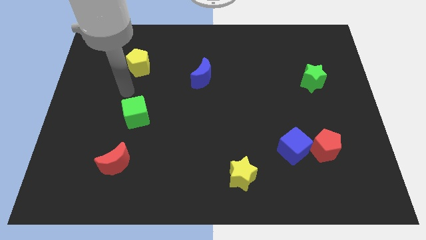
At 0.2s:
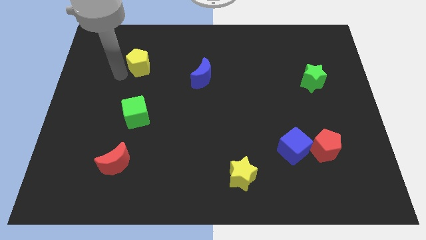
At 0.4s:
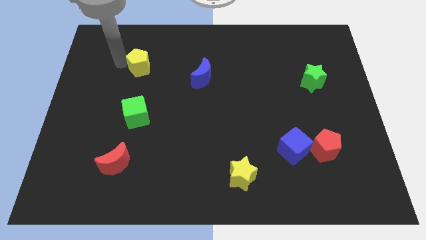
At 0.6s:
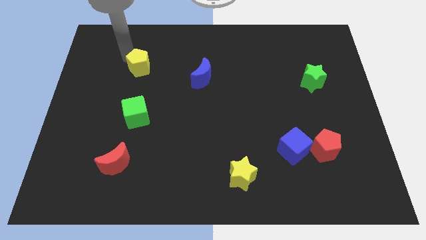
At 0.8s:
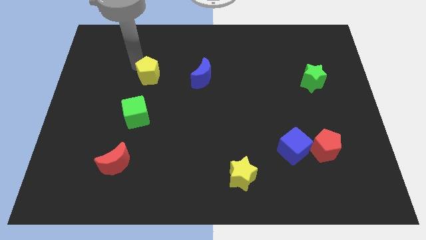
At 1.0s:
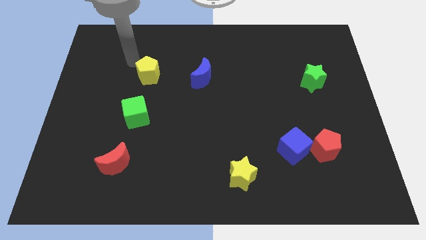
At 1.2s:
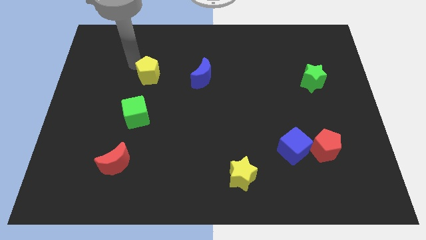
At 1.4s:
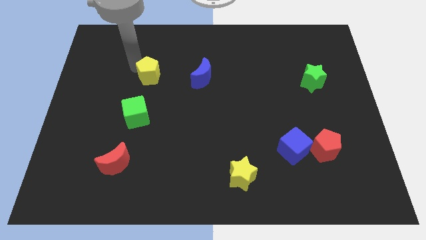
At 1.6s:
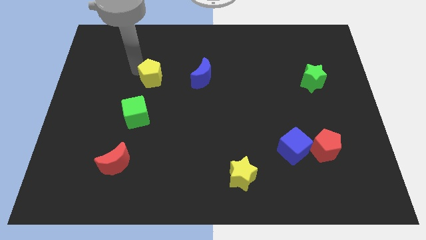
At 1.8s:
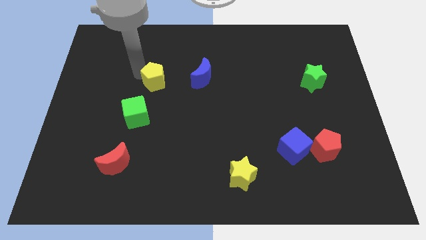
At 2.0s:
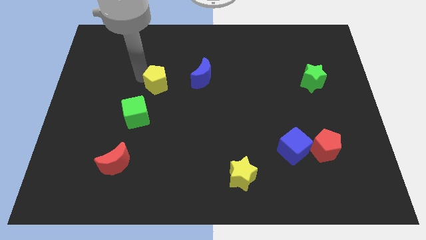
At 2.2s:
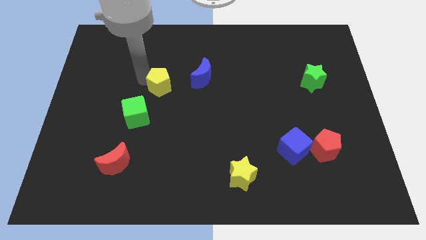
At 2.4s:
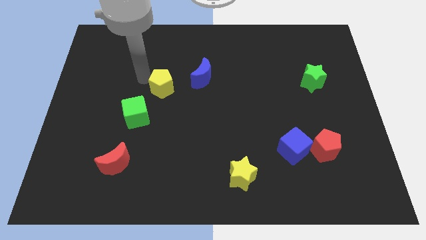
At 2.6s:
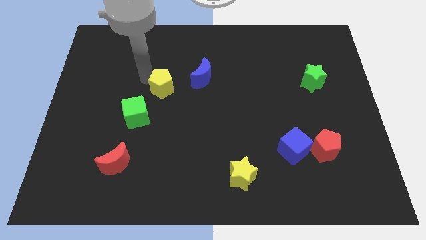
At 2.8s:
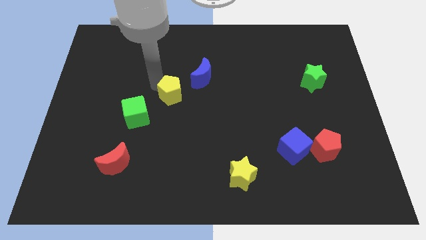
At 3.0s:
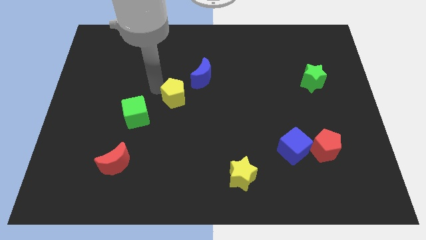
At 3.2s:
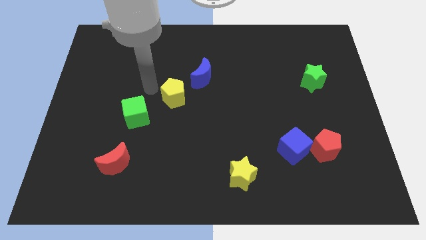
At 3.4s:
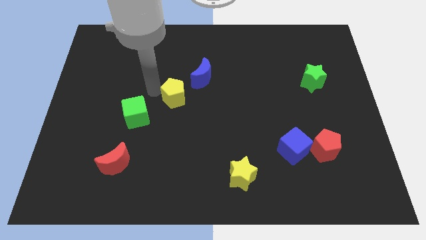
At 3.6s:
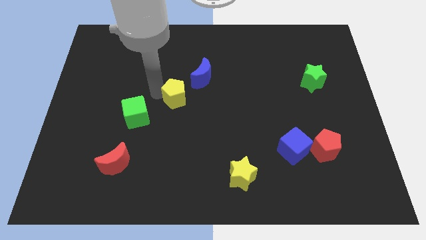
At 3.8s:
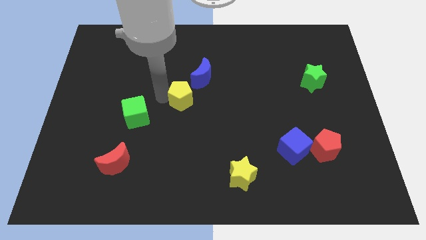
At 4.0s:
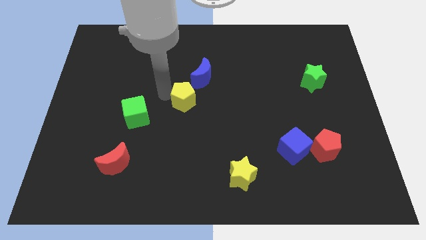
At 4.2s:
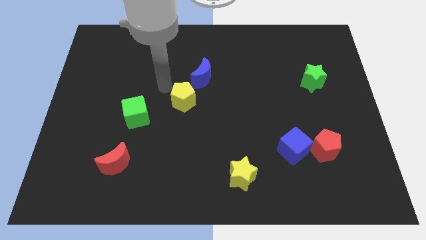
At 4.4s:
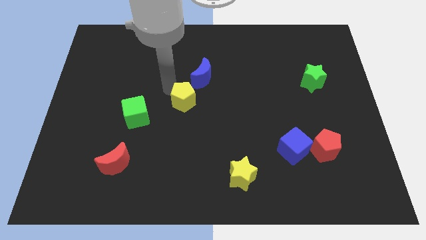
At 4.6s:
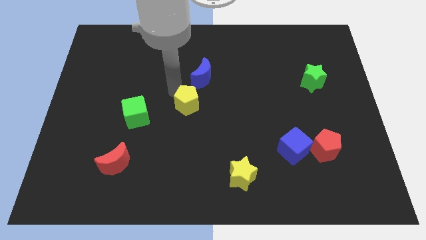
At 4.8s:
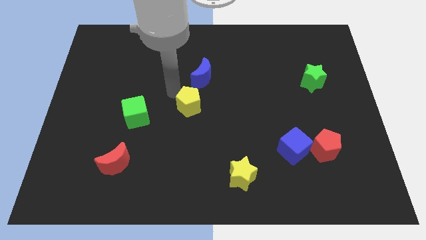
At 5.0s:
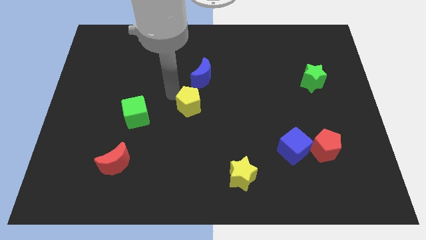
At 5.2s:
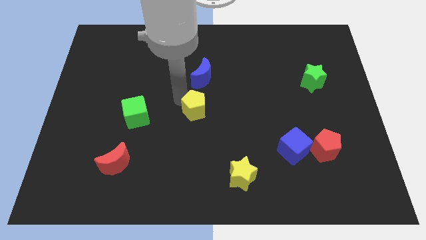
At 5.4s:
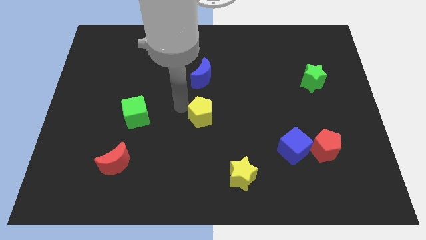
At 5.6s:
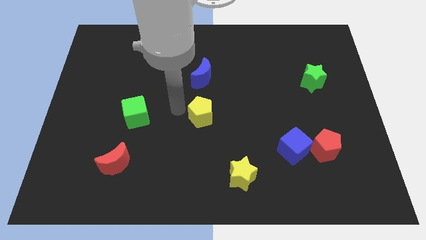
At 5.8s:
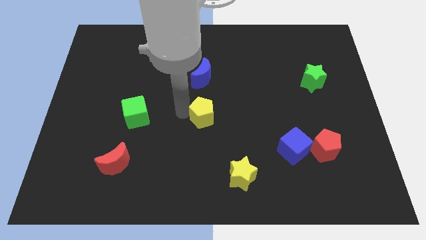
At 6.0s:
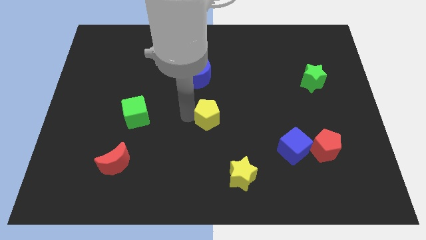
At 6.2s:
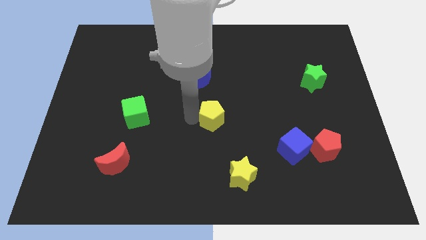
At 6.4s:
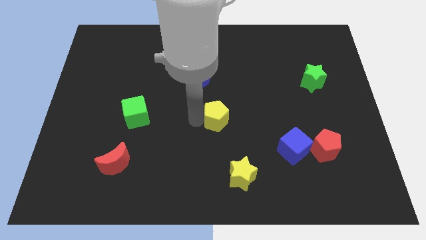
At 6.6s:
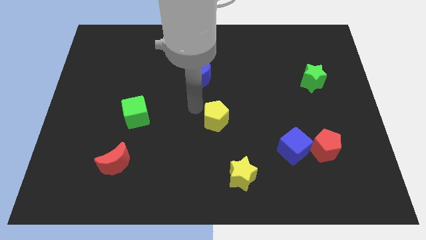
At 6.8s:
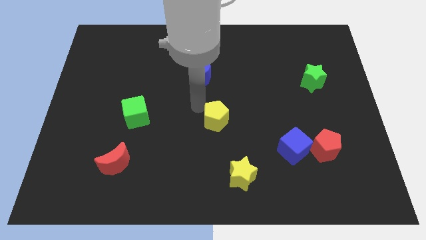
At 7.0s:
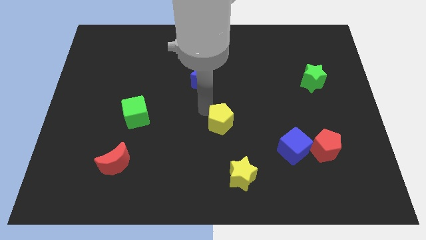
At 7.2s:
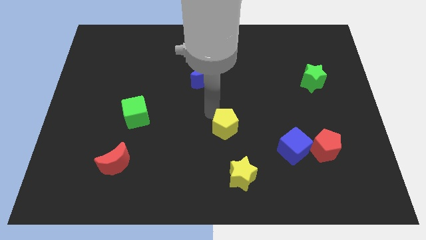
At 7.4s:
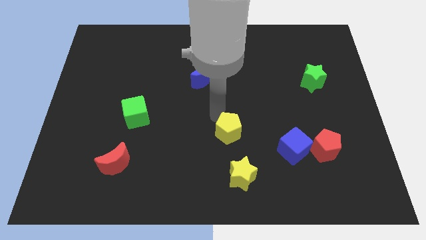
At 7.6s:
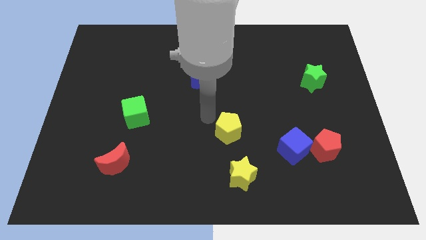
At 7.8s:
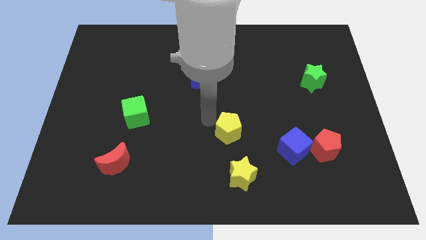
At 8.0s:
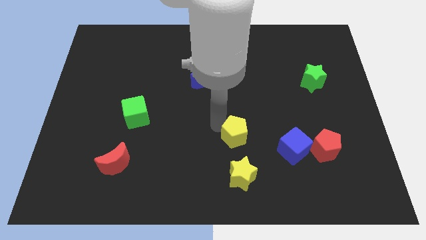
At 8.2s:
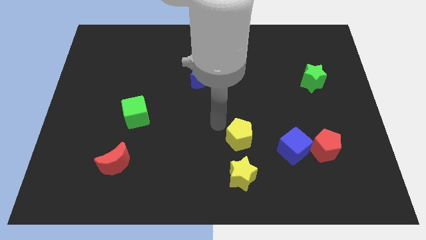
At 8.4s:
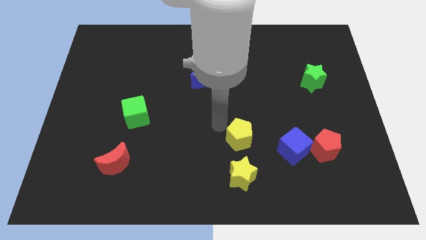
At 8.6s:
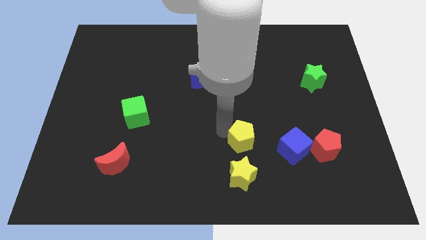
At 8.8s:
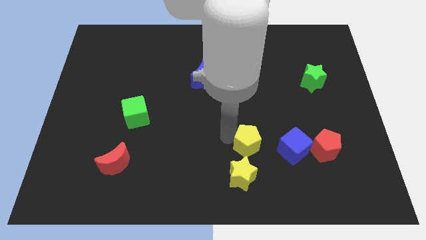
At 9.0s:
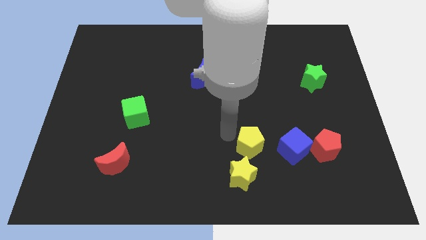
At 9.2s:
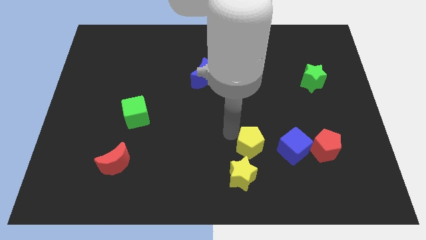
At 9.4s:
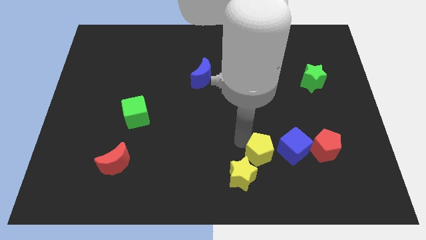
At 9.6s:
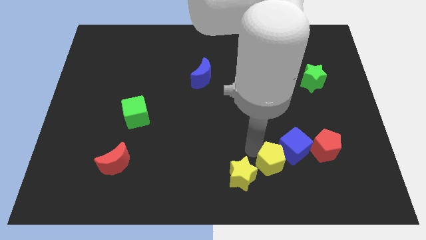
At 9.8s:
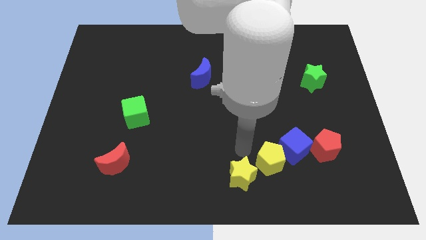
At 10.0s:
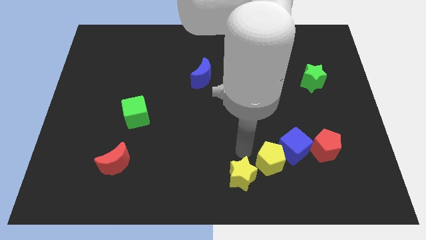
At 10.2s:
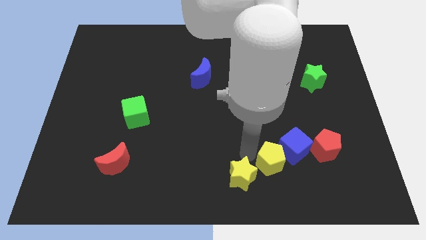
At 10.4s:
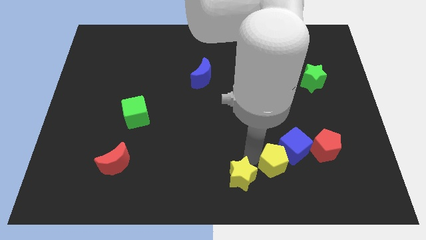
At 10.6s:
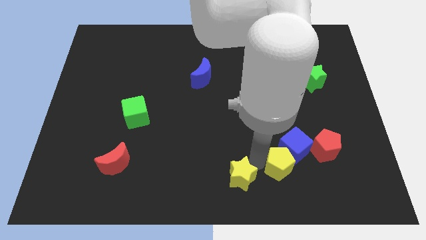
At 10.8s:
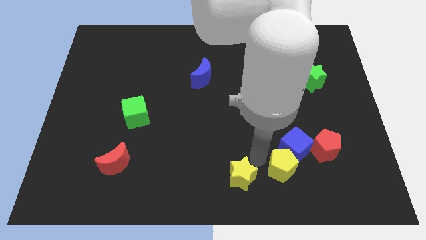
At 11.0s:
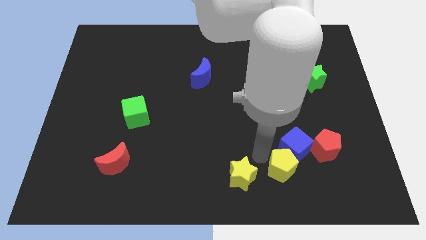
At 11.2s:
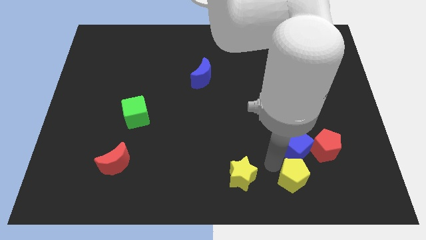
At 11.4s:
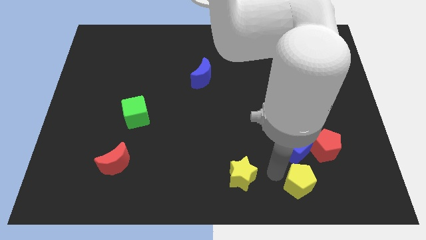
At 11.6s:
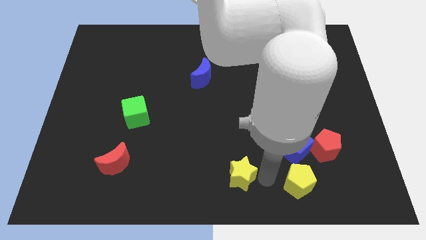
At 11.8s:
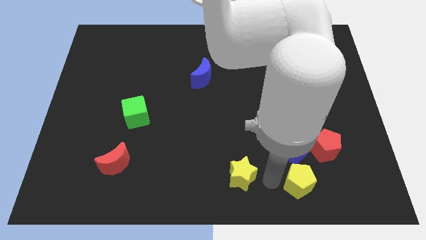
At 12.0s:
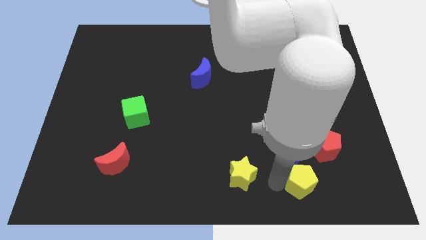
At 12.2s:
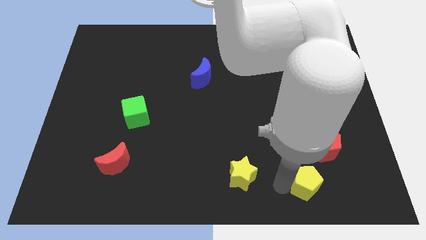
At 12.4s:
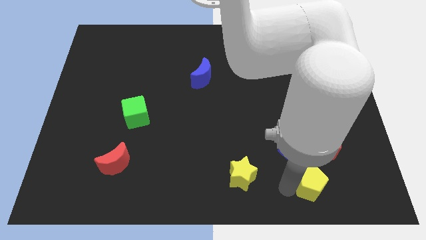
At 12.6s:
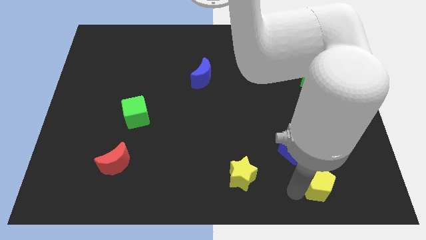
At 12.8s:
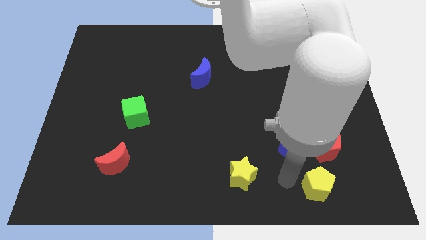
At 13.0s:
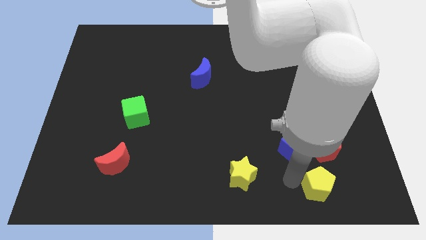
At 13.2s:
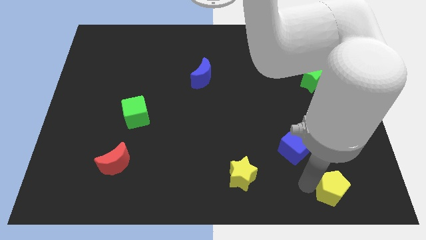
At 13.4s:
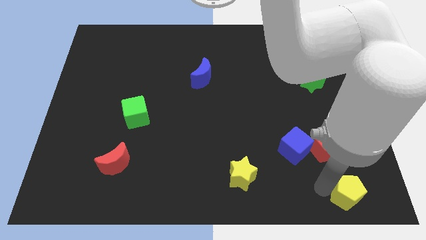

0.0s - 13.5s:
push the yellow pentagon to the bottom right of the board

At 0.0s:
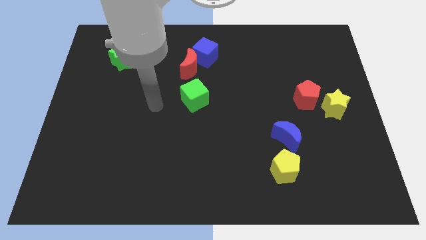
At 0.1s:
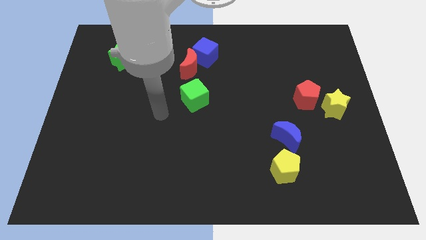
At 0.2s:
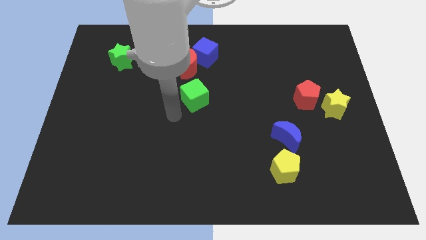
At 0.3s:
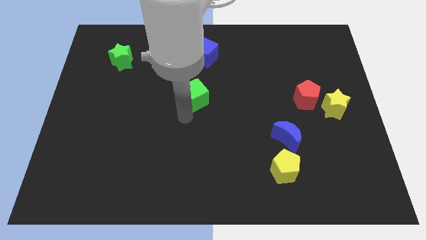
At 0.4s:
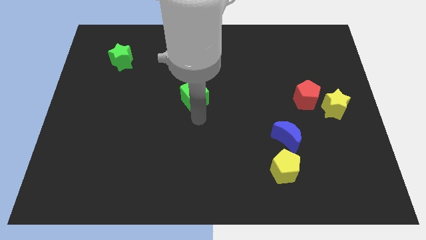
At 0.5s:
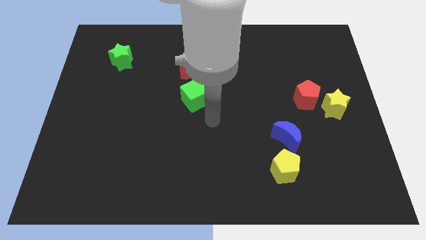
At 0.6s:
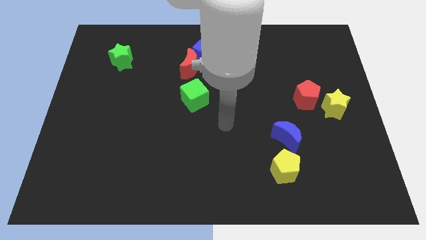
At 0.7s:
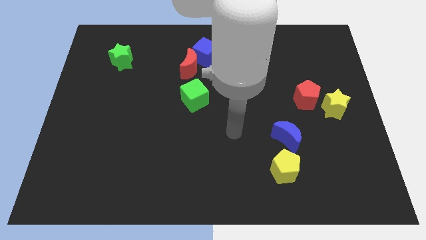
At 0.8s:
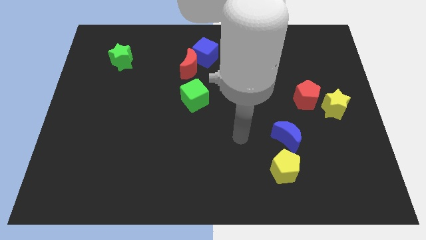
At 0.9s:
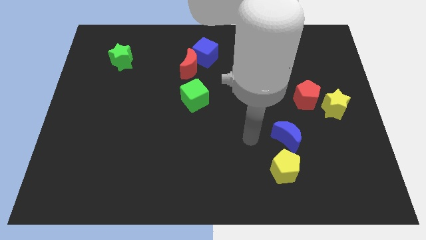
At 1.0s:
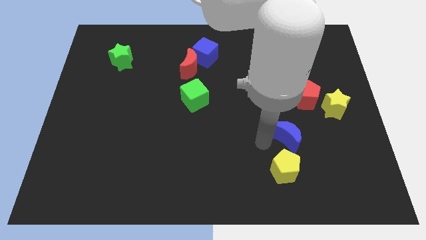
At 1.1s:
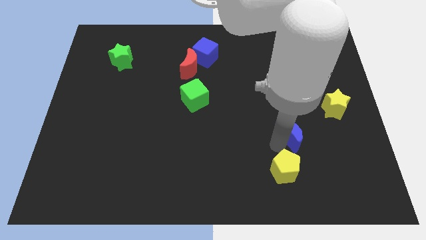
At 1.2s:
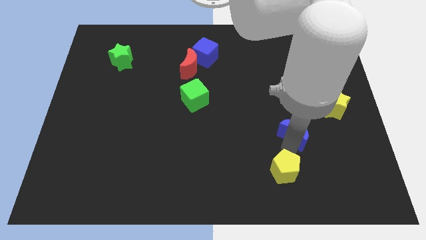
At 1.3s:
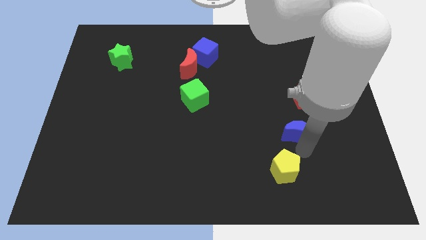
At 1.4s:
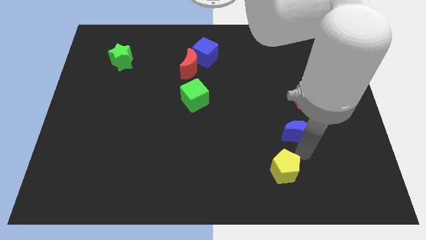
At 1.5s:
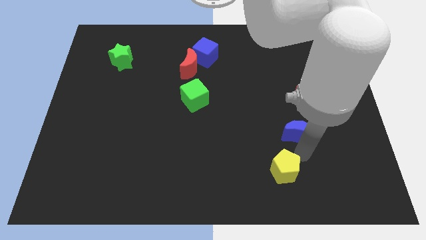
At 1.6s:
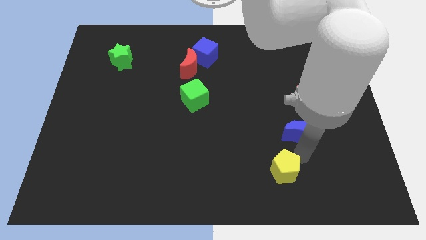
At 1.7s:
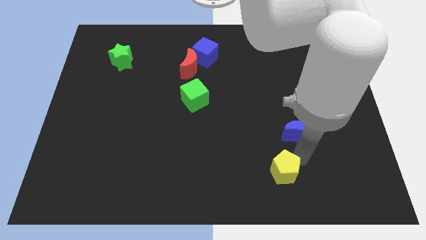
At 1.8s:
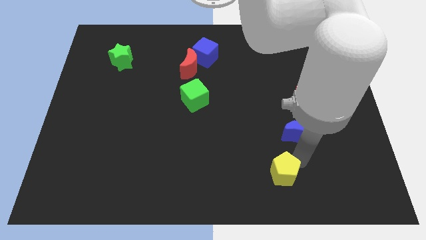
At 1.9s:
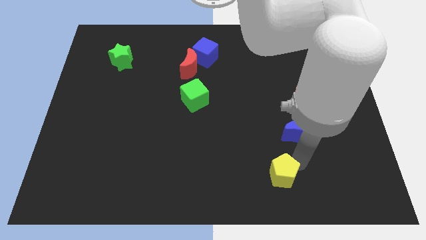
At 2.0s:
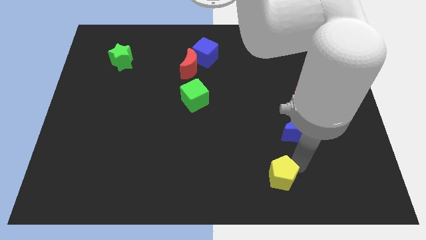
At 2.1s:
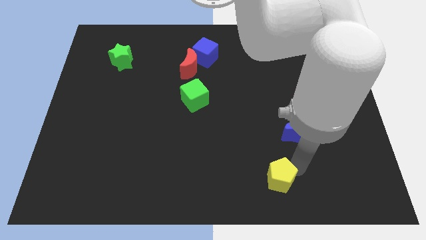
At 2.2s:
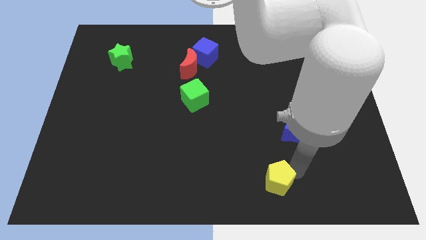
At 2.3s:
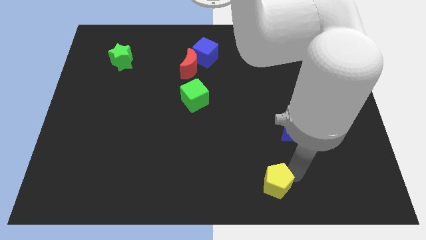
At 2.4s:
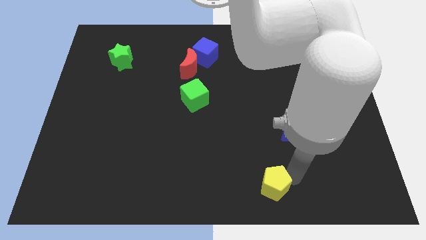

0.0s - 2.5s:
push the yellow pentagon to the bottom side
